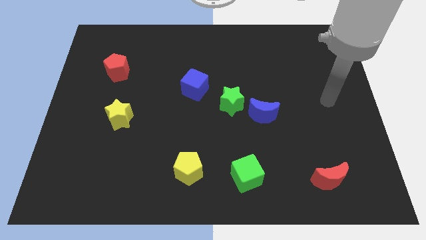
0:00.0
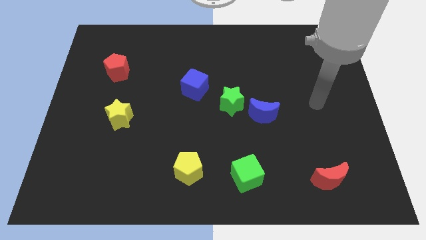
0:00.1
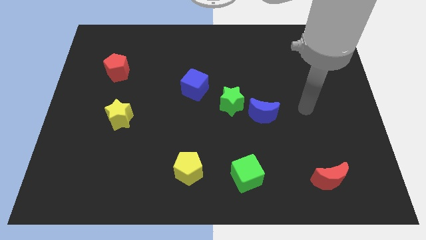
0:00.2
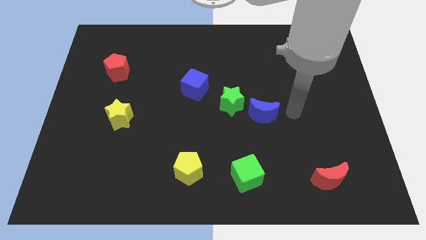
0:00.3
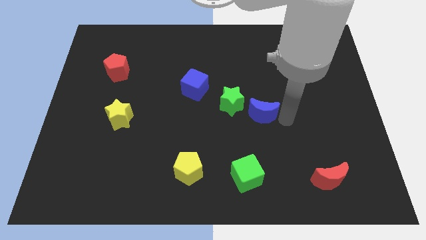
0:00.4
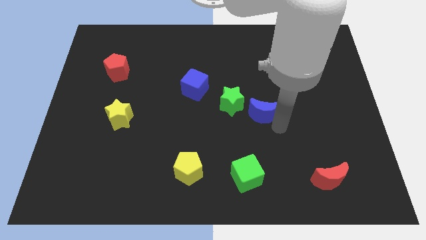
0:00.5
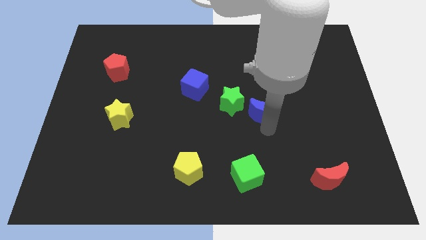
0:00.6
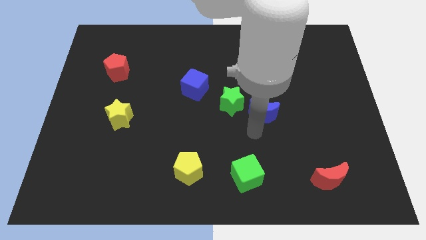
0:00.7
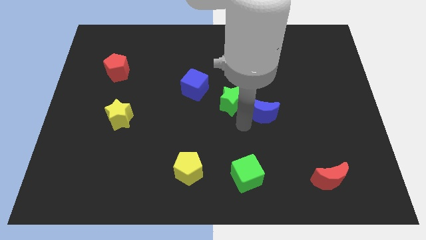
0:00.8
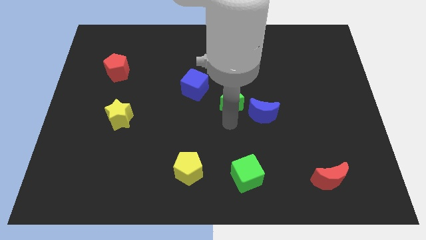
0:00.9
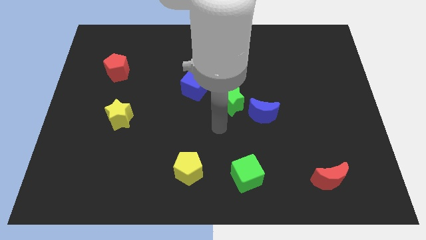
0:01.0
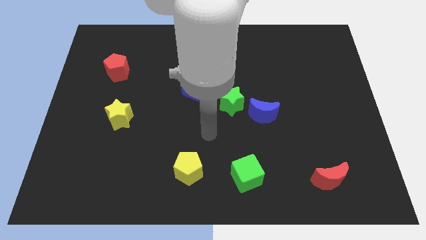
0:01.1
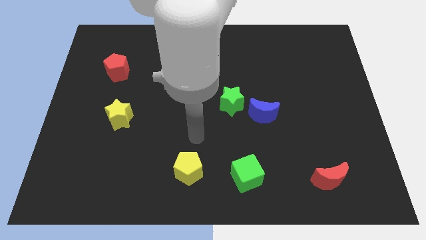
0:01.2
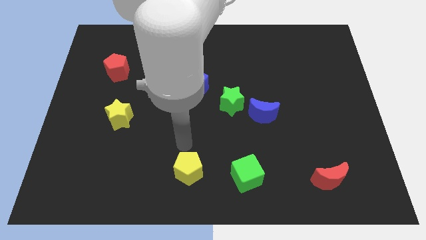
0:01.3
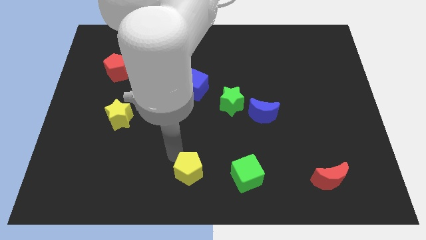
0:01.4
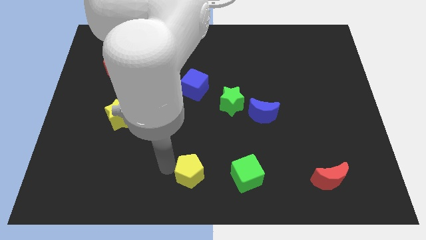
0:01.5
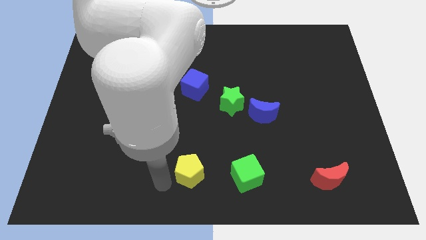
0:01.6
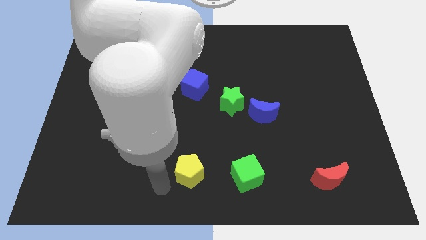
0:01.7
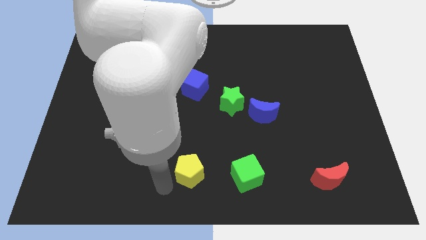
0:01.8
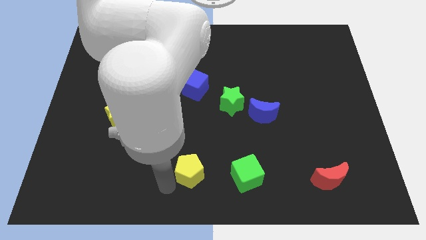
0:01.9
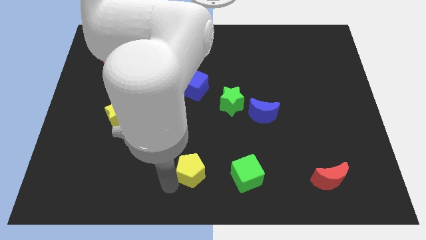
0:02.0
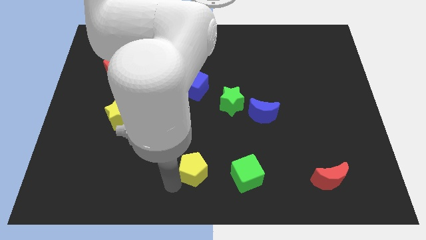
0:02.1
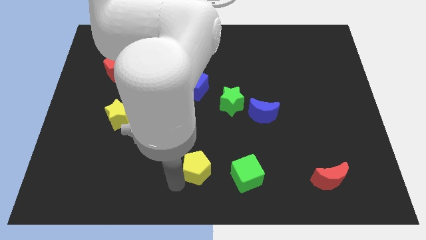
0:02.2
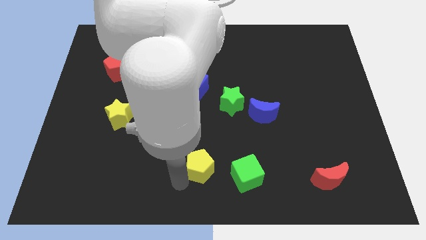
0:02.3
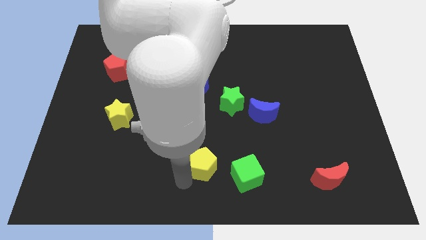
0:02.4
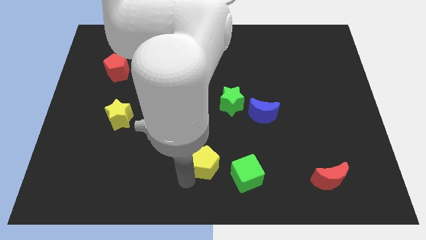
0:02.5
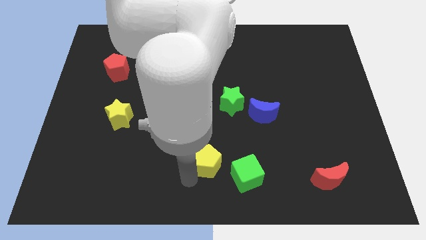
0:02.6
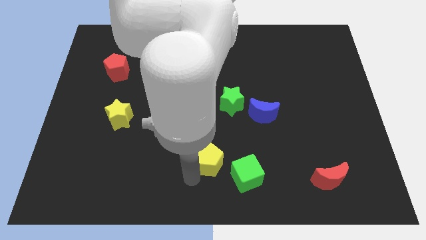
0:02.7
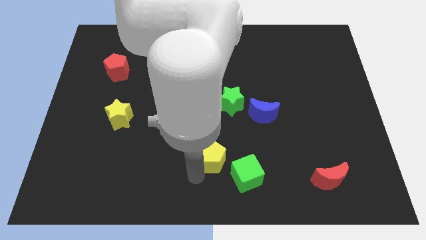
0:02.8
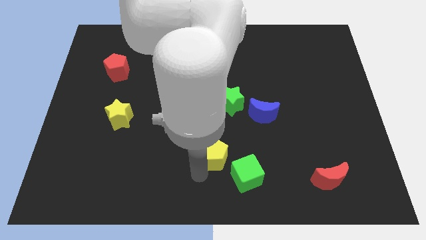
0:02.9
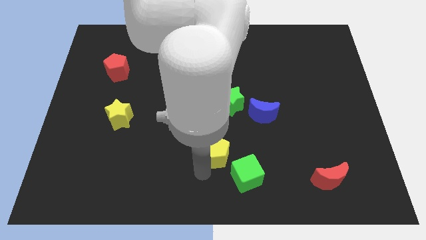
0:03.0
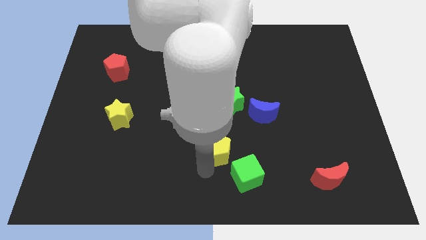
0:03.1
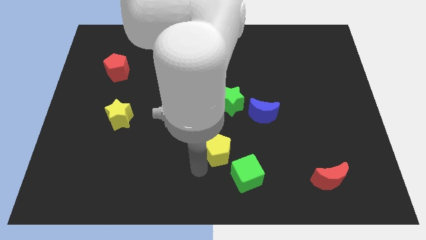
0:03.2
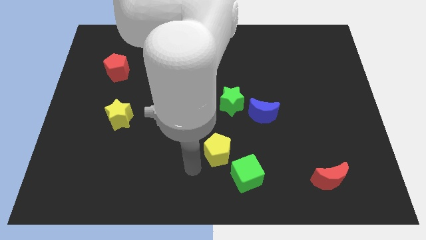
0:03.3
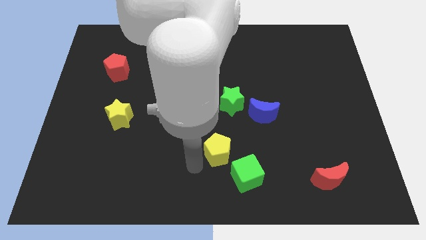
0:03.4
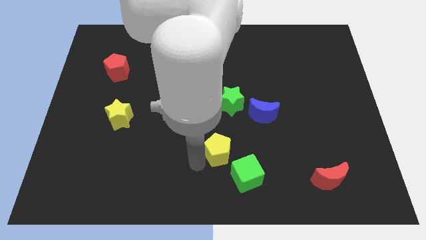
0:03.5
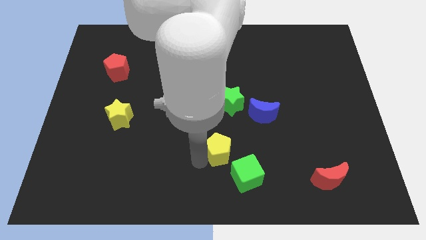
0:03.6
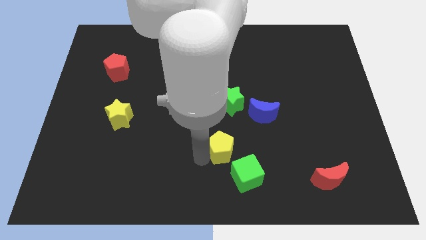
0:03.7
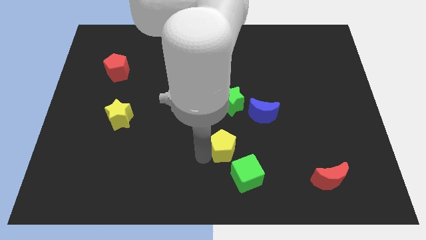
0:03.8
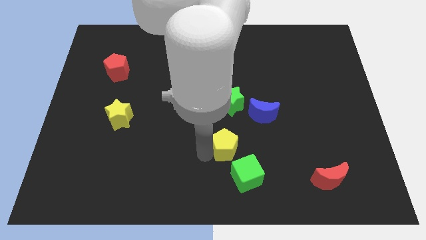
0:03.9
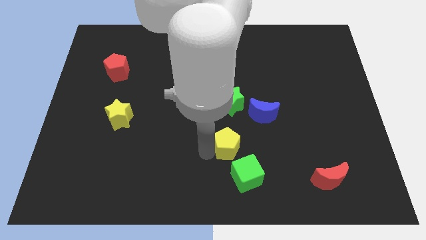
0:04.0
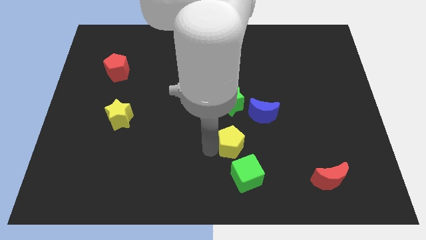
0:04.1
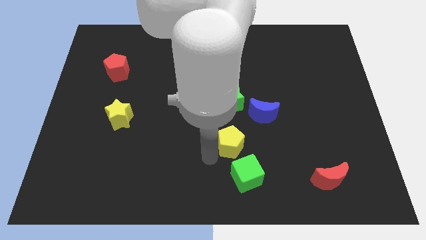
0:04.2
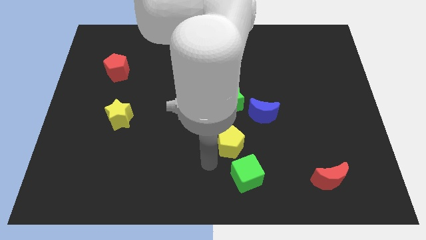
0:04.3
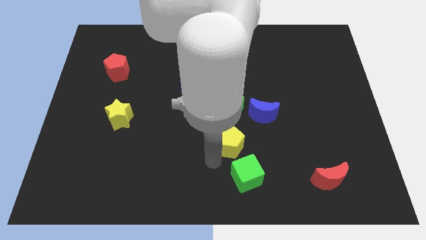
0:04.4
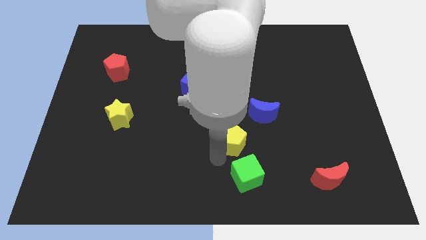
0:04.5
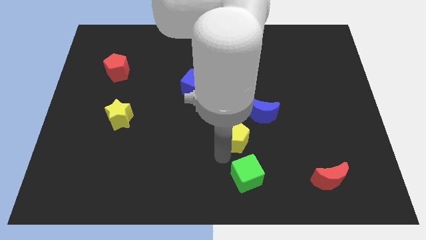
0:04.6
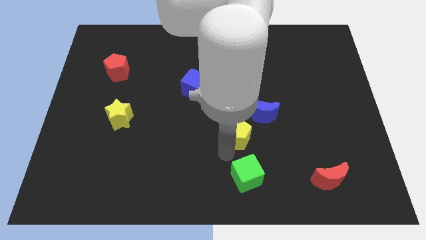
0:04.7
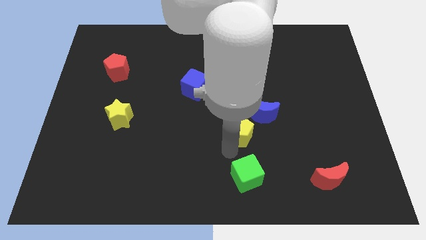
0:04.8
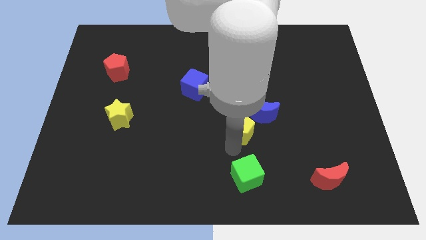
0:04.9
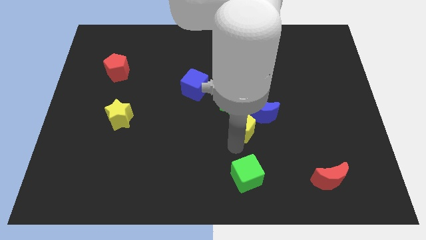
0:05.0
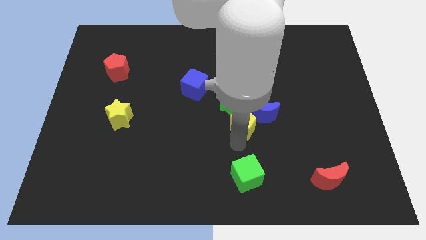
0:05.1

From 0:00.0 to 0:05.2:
move the yellow pentagon to the blue moon

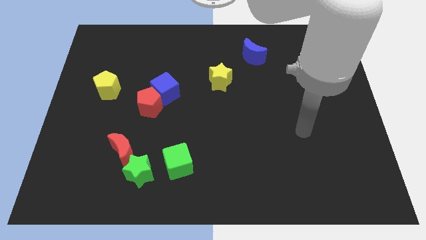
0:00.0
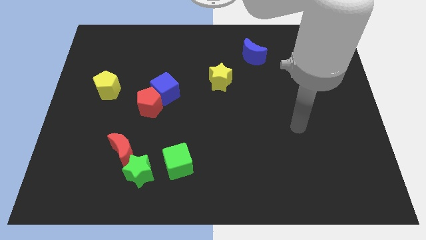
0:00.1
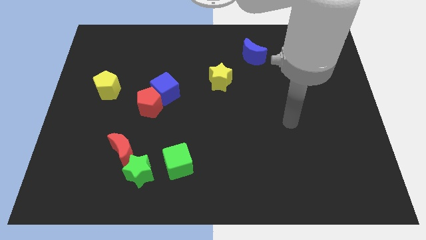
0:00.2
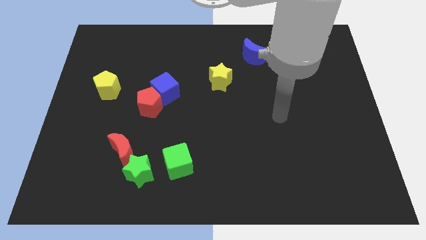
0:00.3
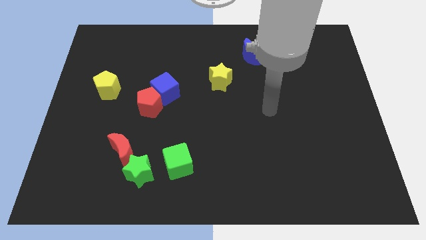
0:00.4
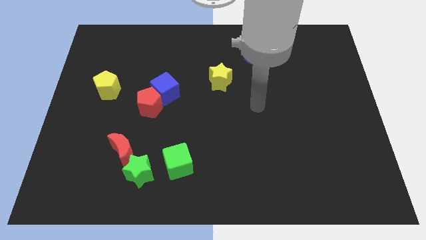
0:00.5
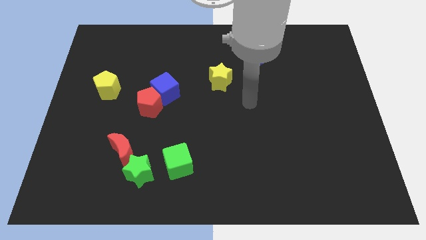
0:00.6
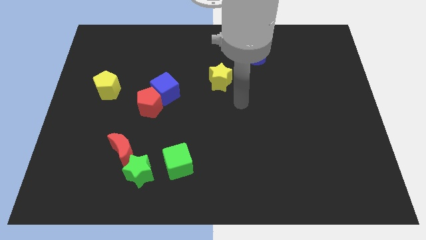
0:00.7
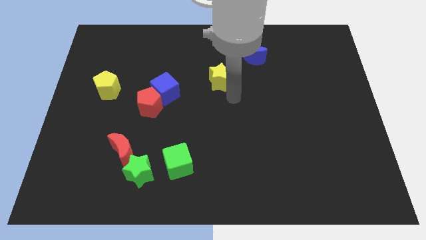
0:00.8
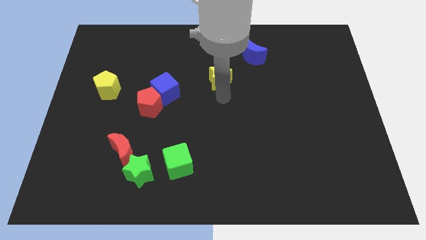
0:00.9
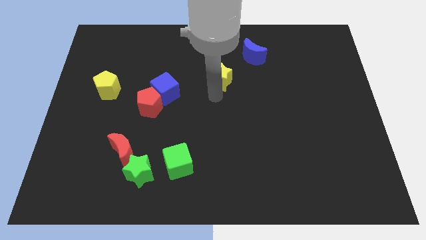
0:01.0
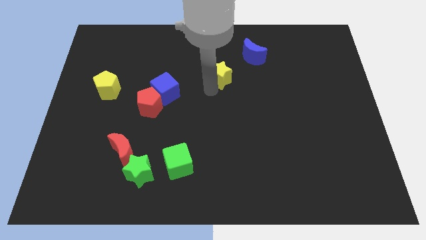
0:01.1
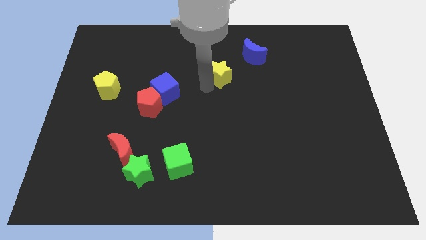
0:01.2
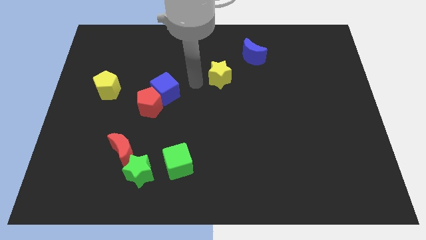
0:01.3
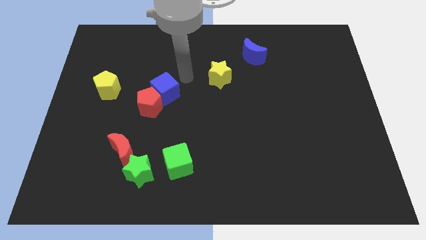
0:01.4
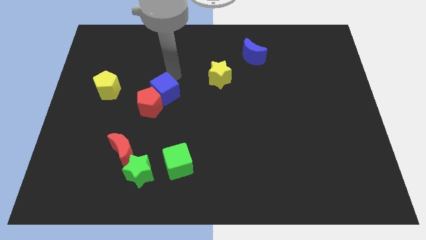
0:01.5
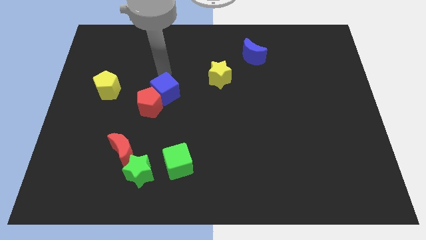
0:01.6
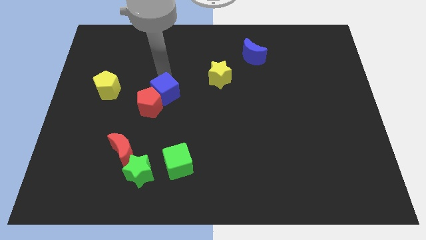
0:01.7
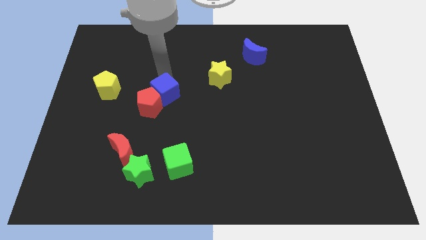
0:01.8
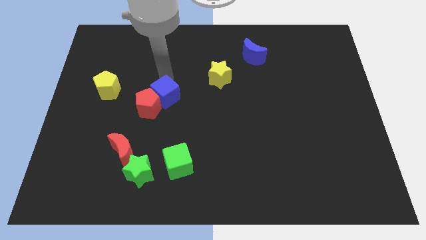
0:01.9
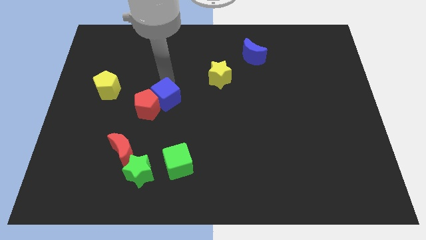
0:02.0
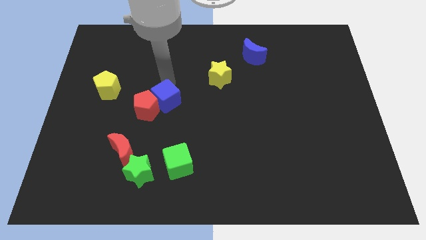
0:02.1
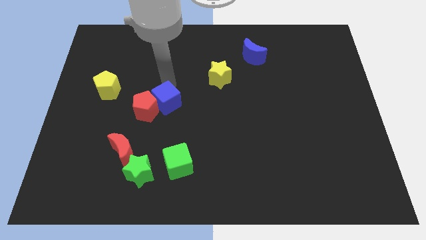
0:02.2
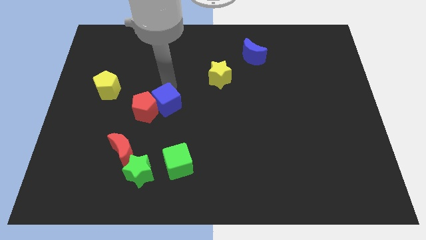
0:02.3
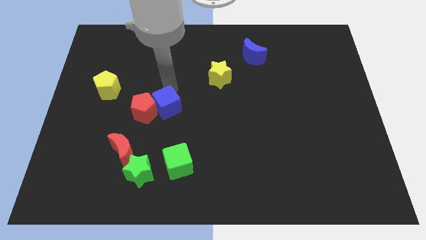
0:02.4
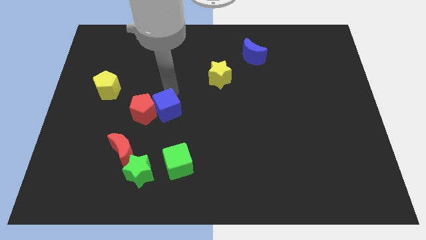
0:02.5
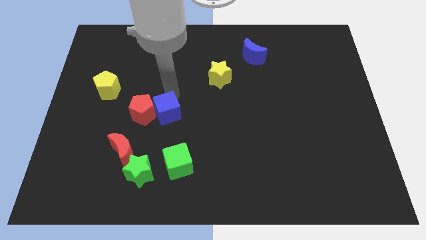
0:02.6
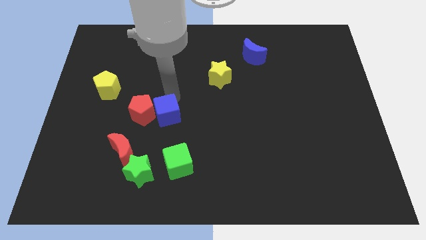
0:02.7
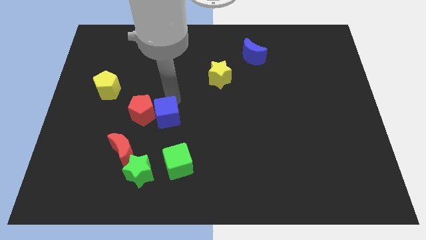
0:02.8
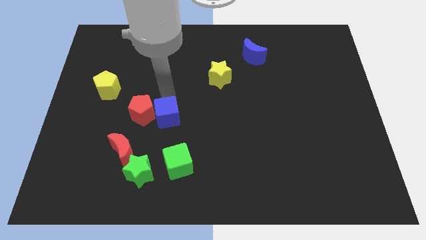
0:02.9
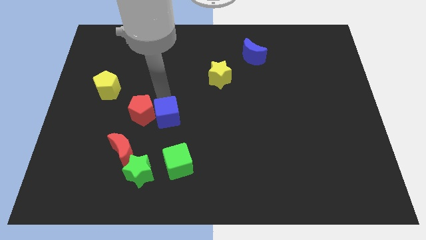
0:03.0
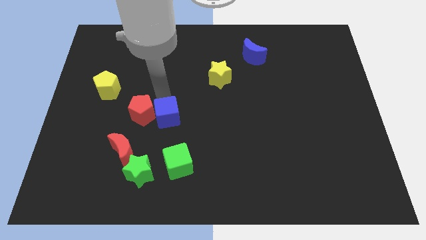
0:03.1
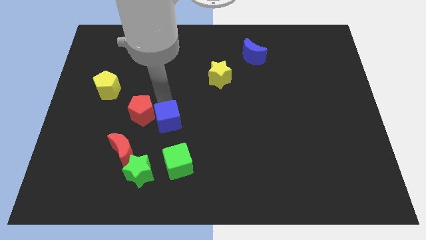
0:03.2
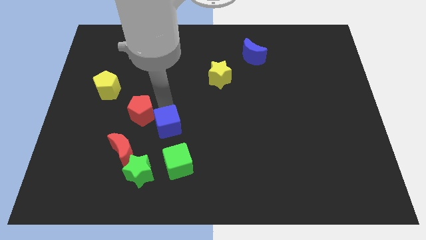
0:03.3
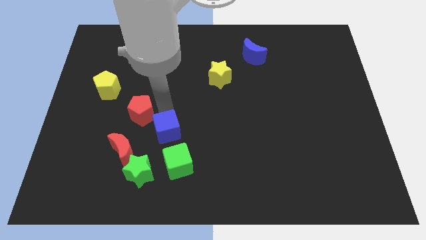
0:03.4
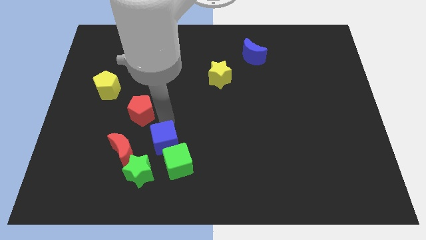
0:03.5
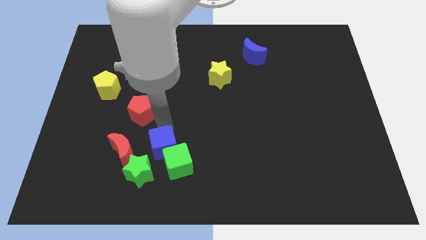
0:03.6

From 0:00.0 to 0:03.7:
move the blue cube to the green cube
